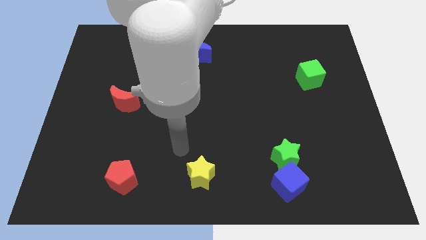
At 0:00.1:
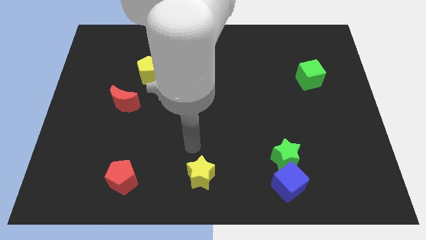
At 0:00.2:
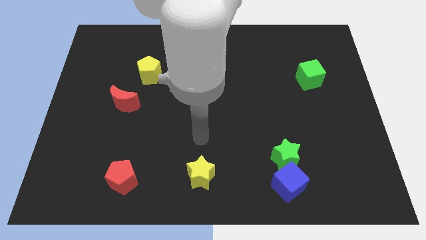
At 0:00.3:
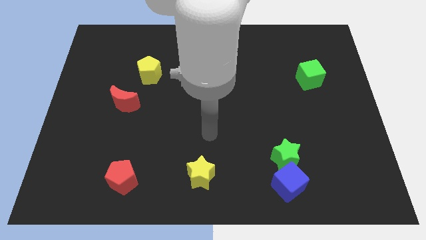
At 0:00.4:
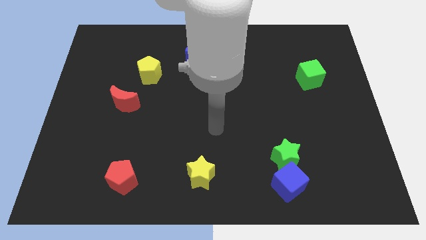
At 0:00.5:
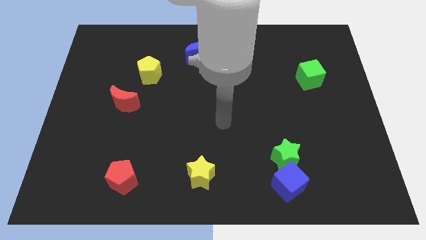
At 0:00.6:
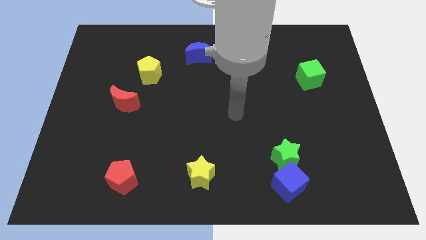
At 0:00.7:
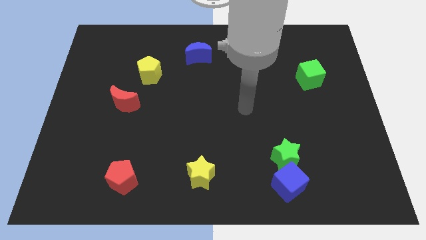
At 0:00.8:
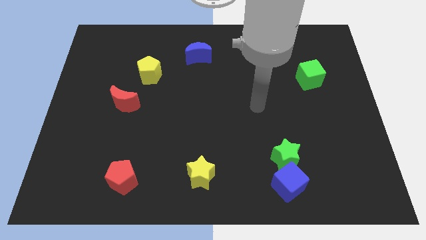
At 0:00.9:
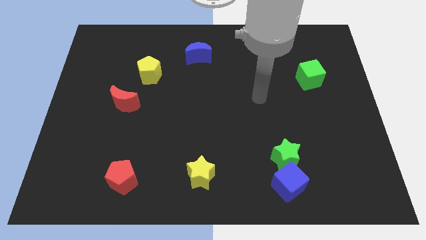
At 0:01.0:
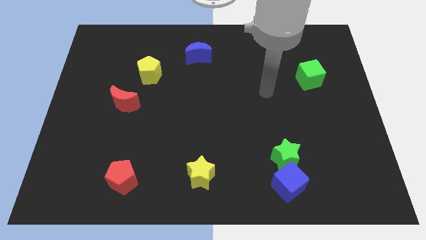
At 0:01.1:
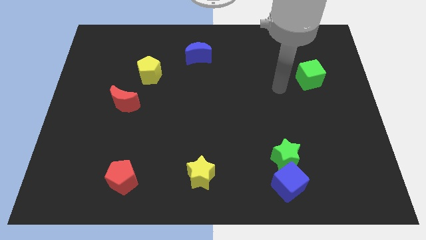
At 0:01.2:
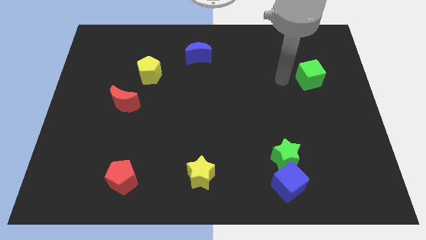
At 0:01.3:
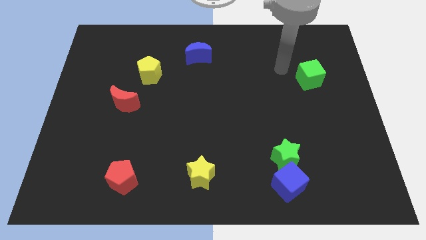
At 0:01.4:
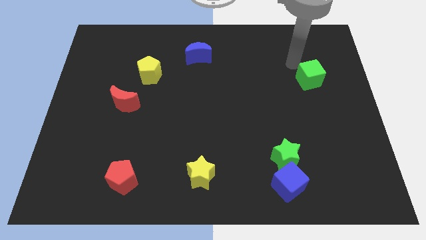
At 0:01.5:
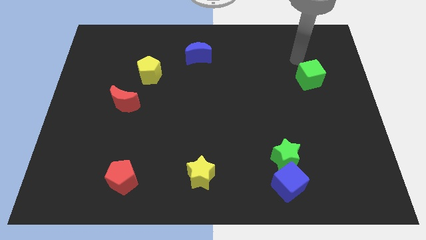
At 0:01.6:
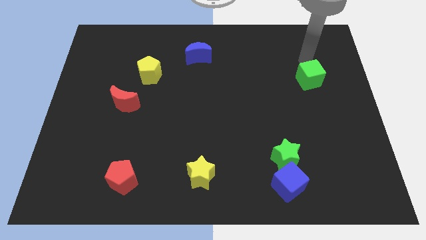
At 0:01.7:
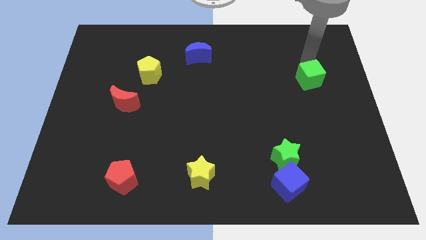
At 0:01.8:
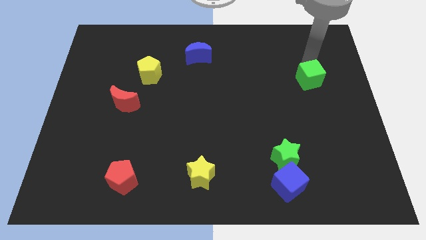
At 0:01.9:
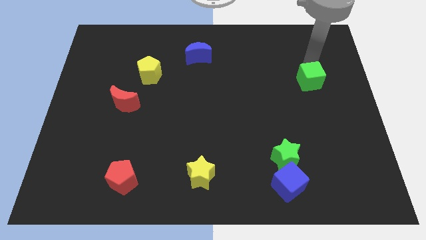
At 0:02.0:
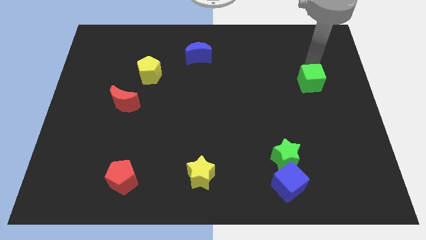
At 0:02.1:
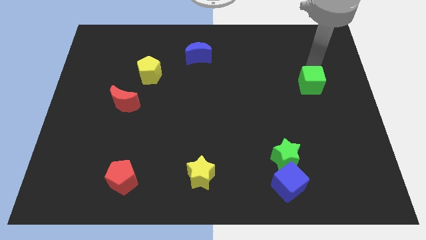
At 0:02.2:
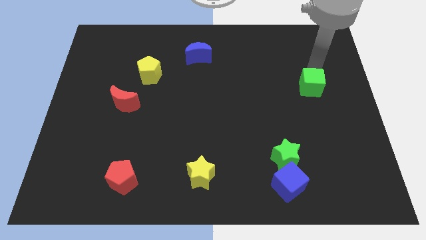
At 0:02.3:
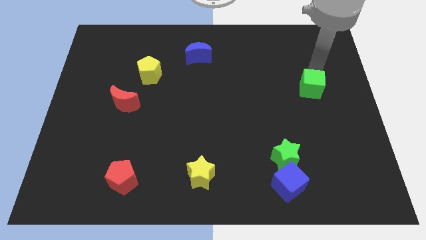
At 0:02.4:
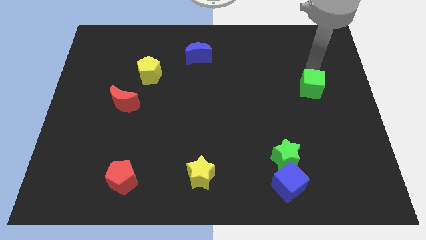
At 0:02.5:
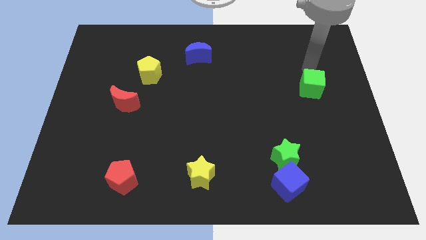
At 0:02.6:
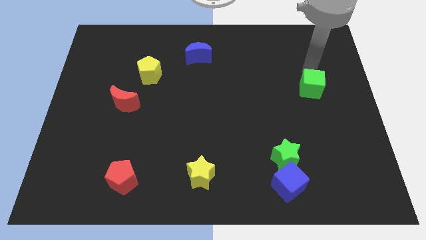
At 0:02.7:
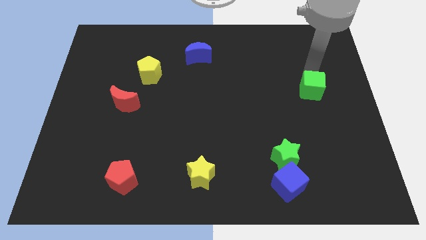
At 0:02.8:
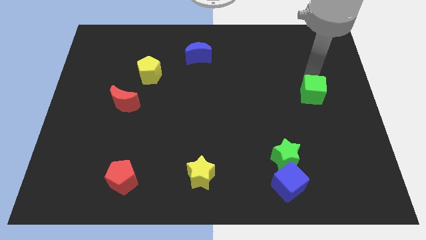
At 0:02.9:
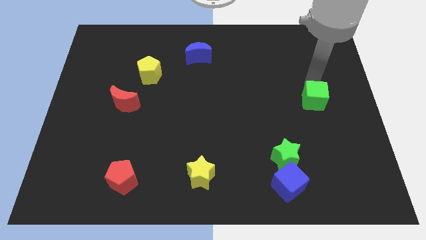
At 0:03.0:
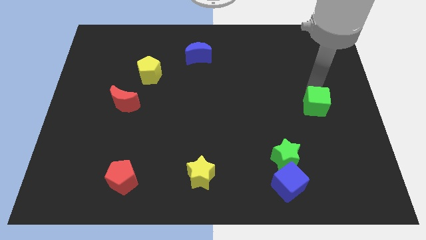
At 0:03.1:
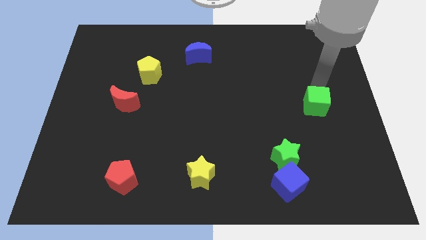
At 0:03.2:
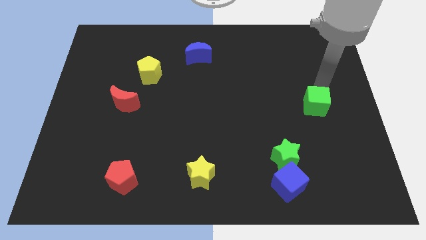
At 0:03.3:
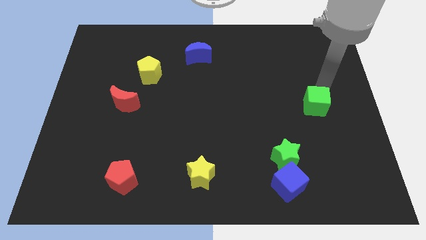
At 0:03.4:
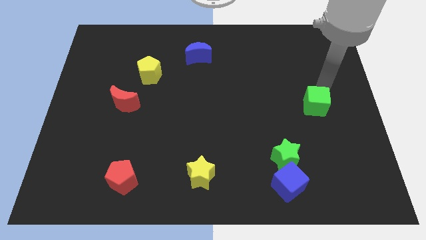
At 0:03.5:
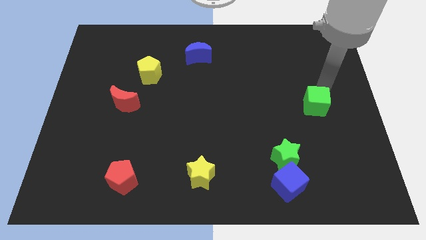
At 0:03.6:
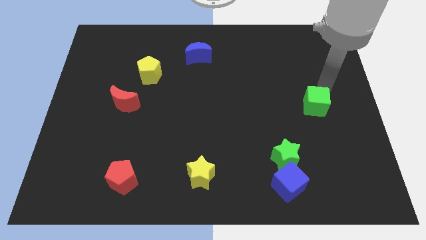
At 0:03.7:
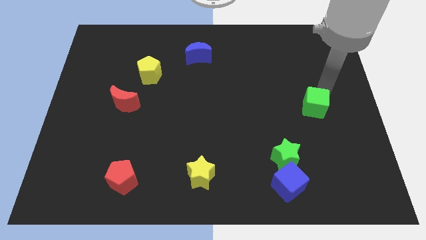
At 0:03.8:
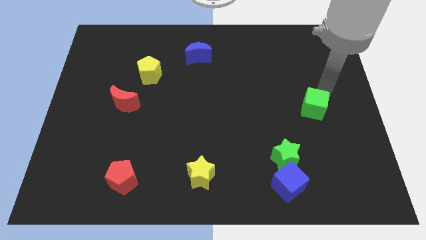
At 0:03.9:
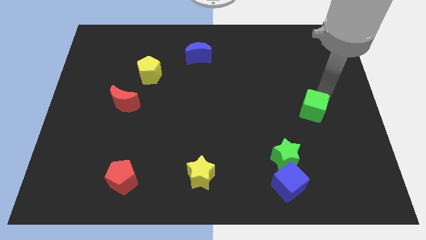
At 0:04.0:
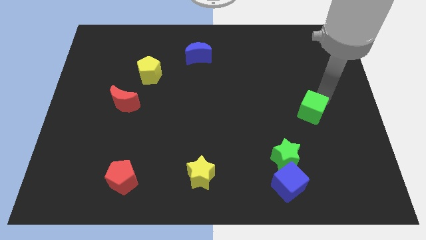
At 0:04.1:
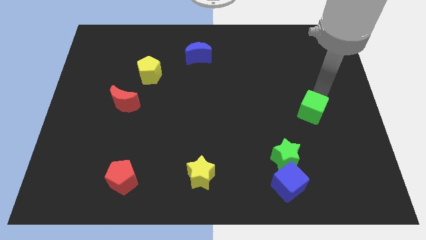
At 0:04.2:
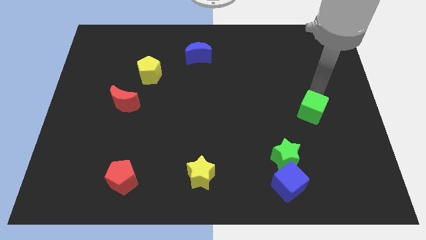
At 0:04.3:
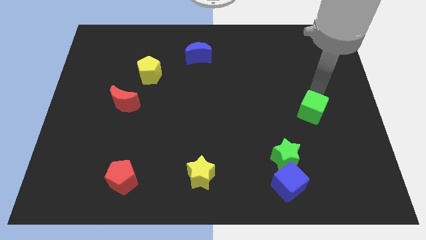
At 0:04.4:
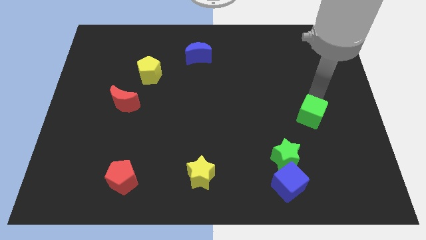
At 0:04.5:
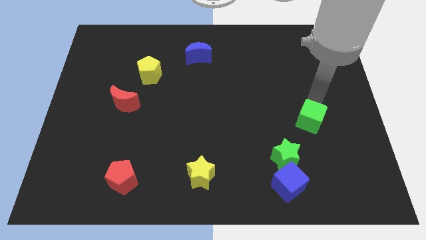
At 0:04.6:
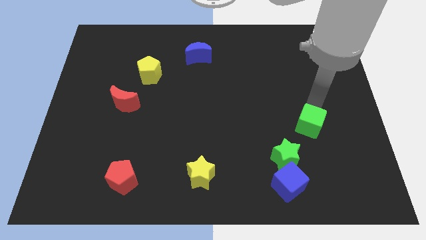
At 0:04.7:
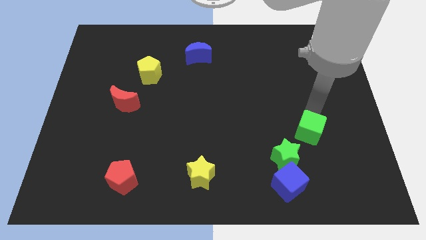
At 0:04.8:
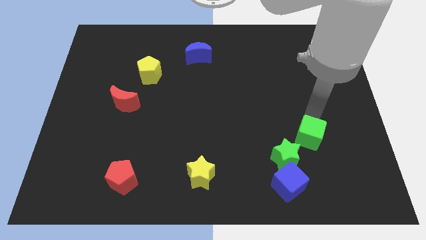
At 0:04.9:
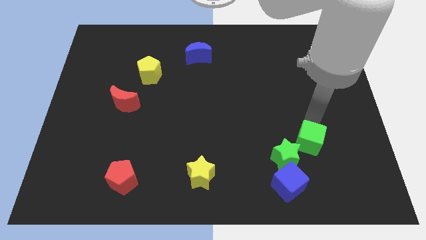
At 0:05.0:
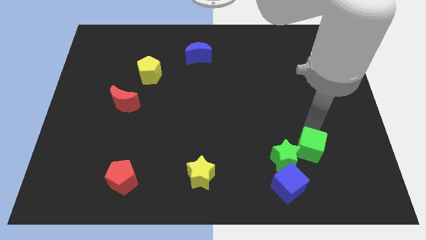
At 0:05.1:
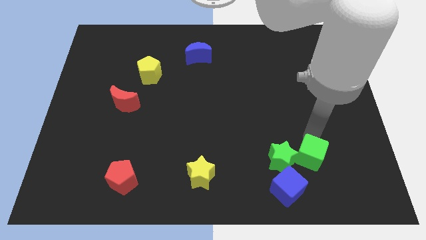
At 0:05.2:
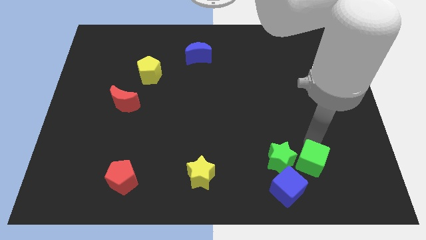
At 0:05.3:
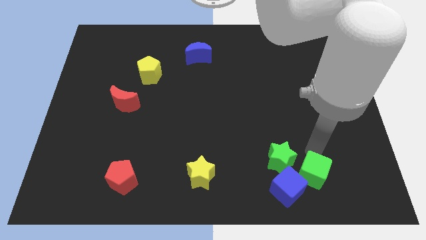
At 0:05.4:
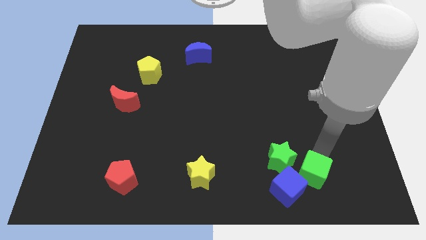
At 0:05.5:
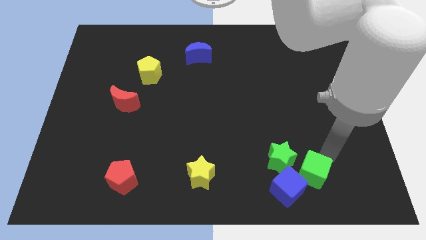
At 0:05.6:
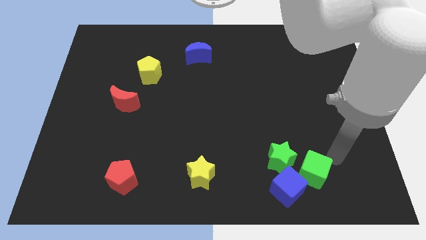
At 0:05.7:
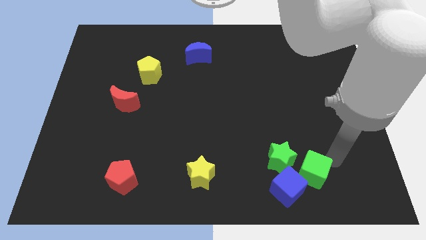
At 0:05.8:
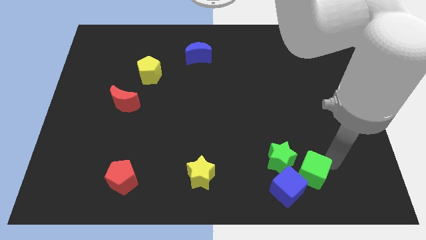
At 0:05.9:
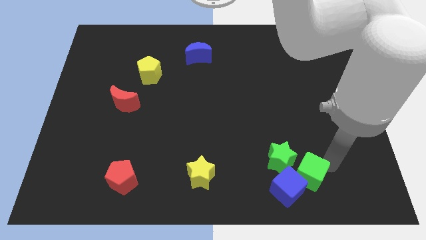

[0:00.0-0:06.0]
put the green cube close to the blue cube

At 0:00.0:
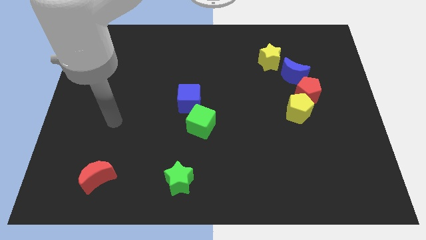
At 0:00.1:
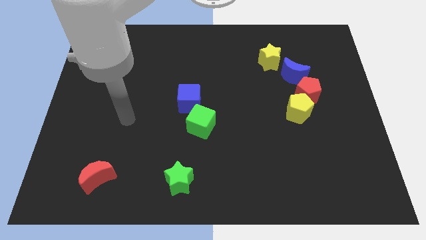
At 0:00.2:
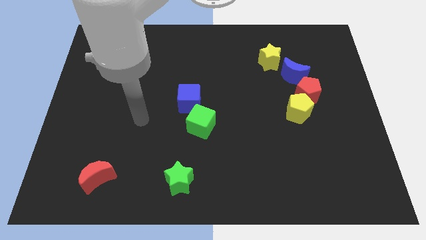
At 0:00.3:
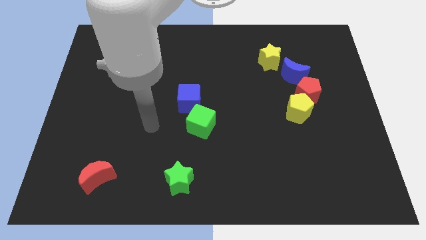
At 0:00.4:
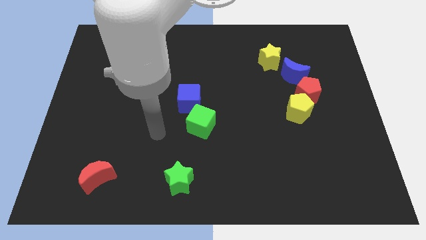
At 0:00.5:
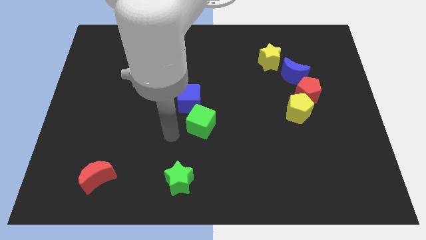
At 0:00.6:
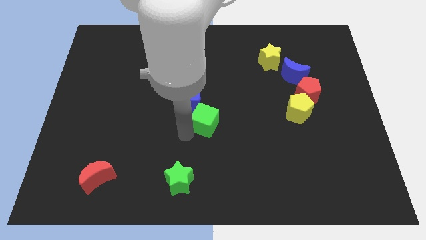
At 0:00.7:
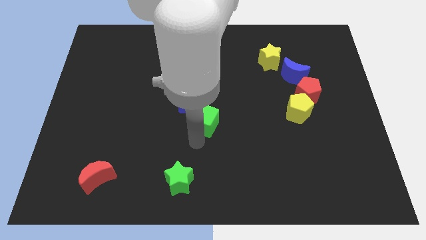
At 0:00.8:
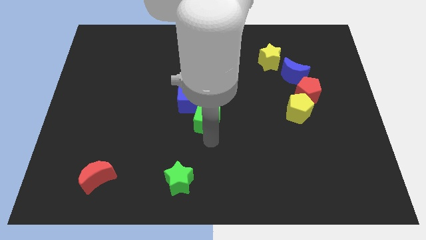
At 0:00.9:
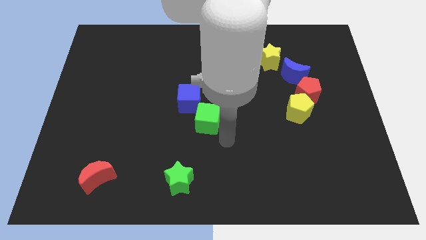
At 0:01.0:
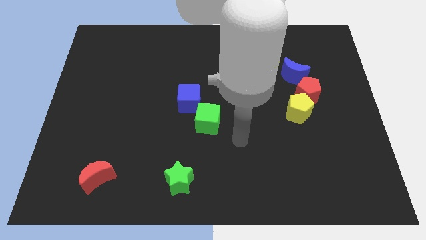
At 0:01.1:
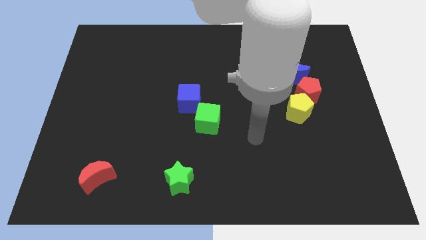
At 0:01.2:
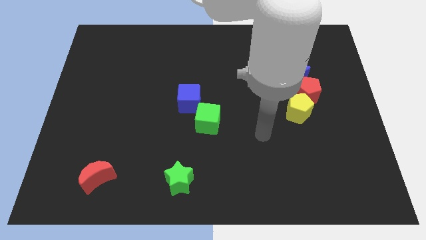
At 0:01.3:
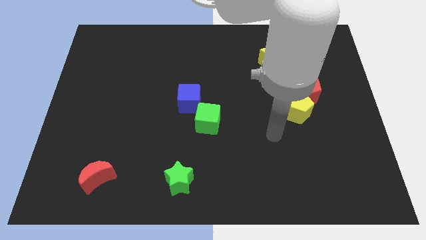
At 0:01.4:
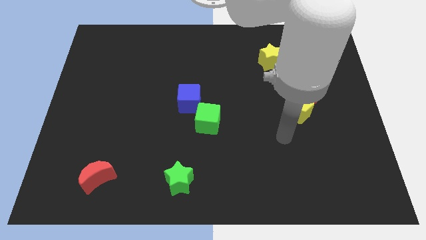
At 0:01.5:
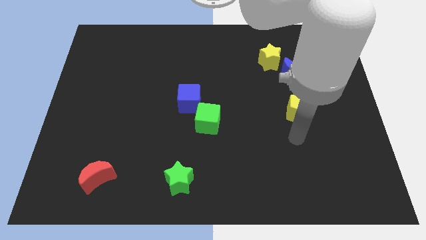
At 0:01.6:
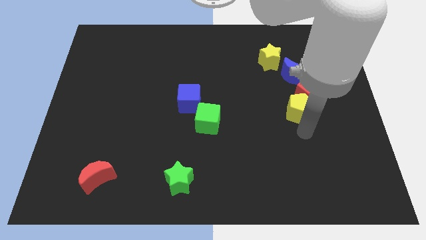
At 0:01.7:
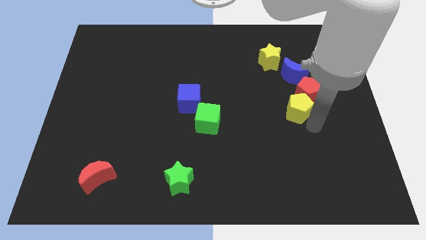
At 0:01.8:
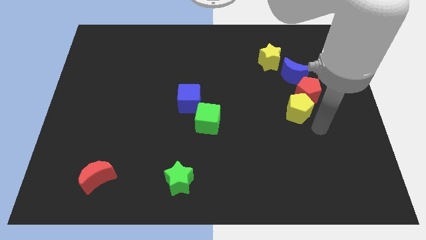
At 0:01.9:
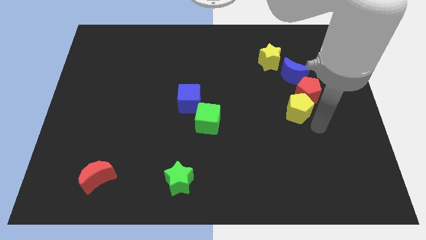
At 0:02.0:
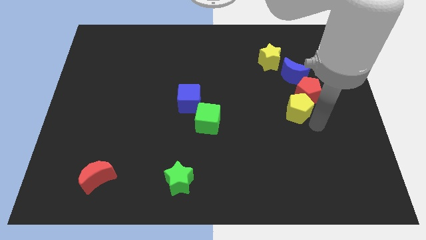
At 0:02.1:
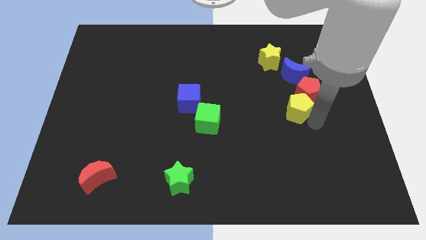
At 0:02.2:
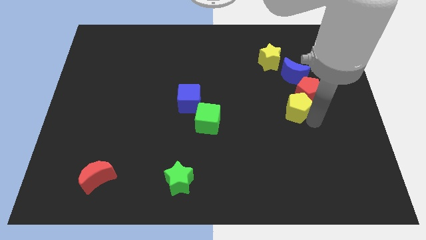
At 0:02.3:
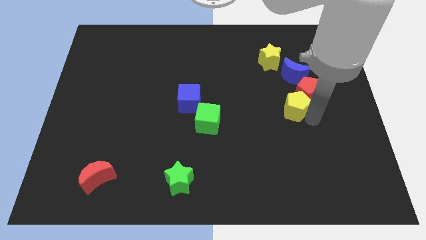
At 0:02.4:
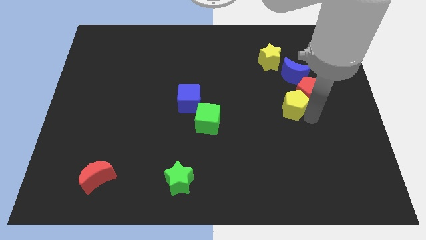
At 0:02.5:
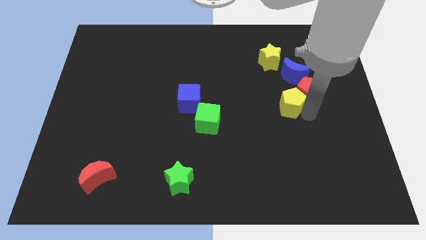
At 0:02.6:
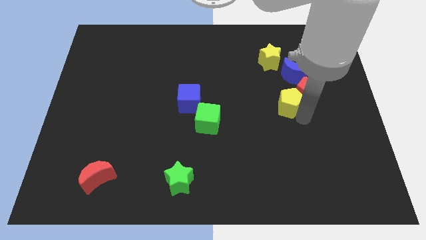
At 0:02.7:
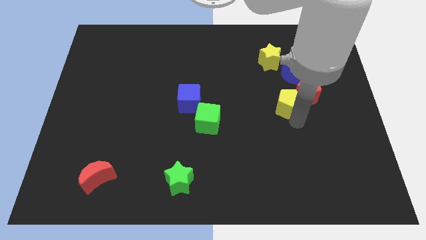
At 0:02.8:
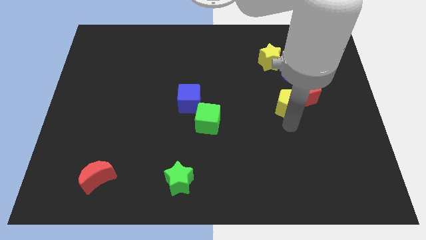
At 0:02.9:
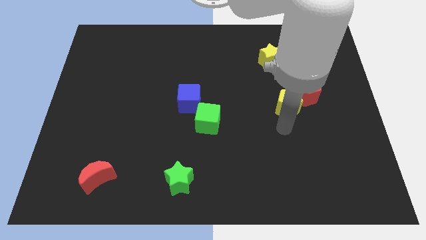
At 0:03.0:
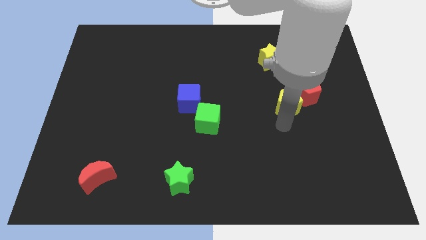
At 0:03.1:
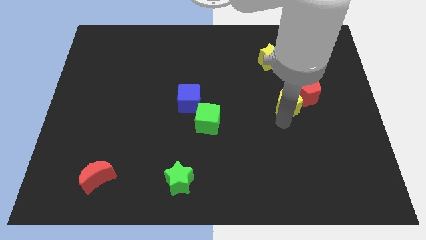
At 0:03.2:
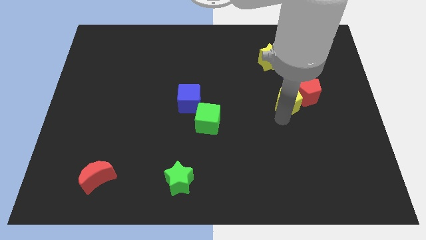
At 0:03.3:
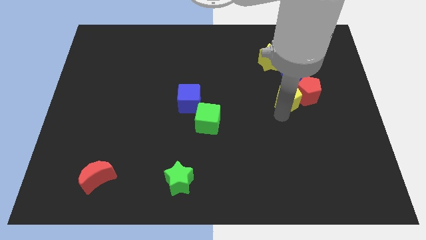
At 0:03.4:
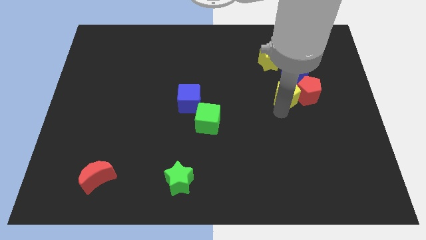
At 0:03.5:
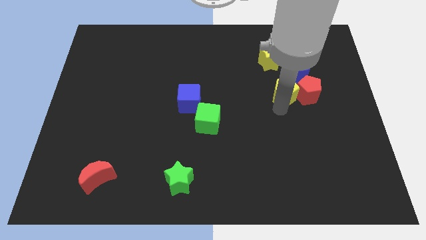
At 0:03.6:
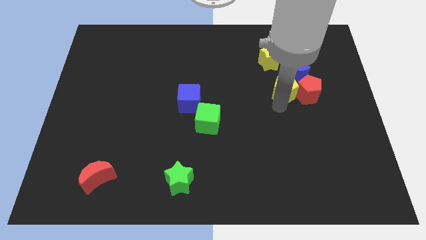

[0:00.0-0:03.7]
slide the yellow pentagon to the blue moon
